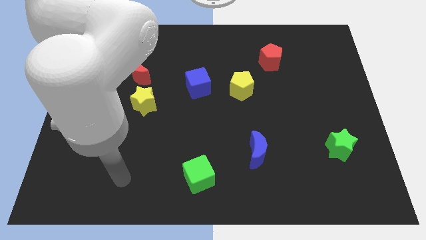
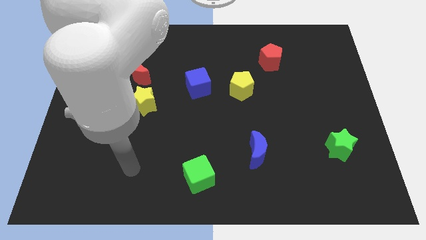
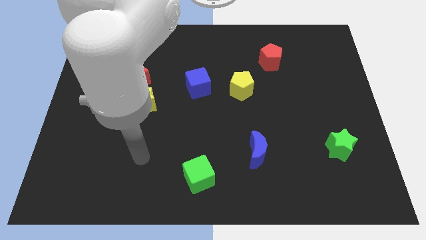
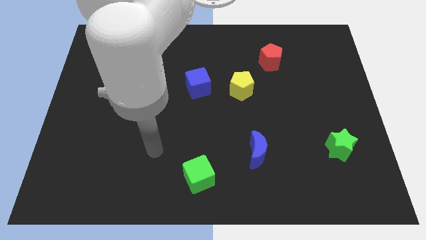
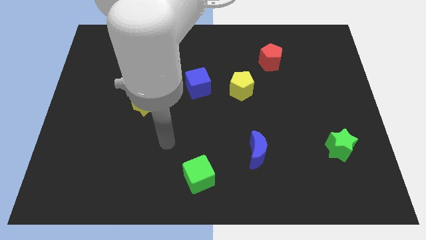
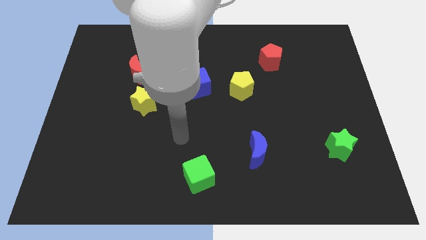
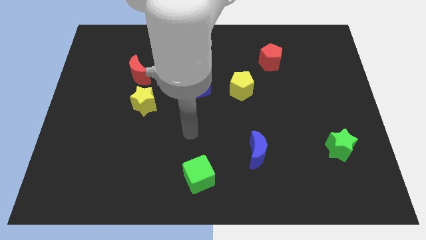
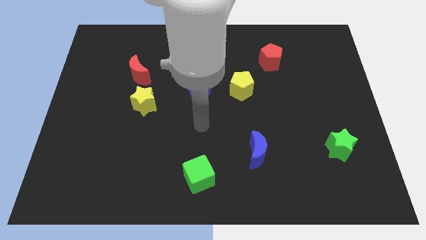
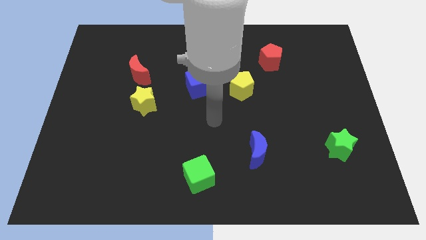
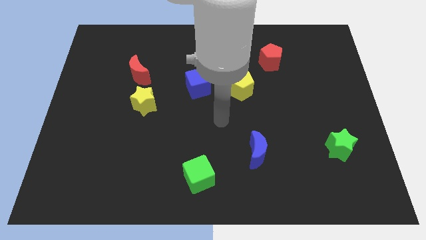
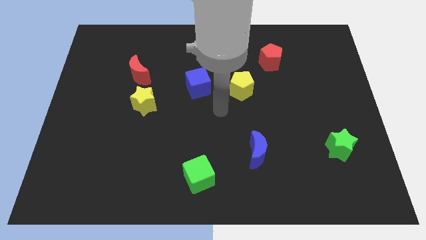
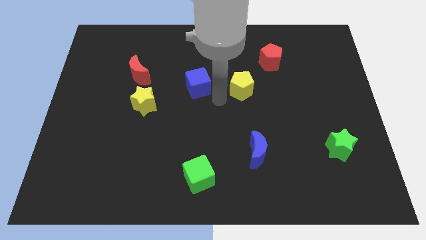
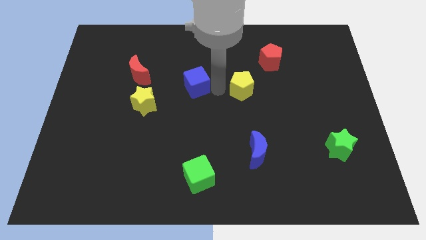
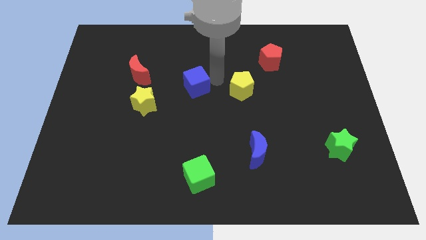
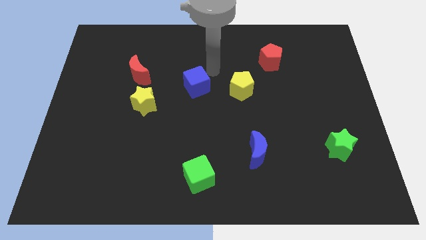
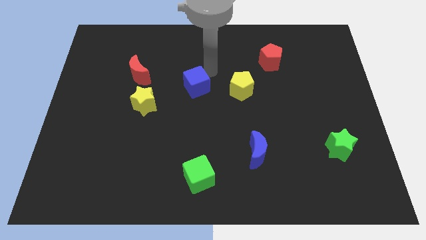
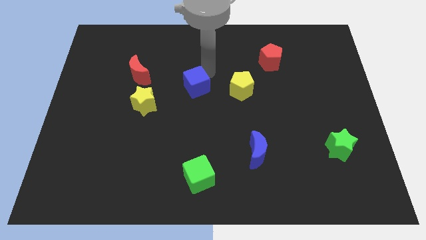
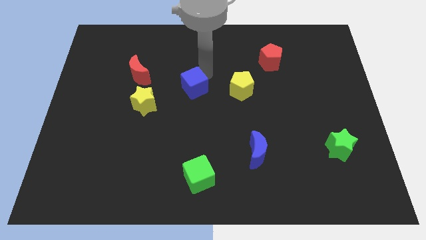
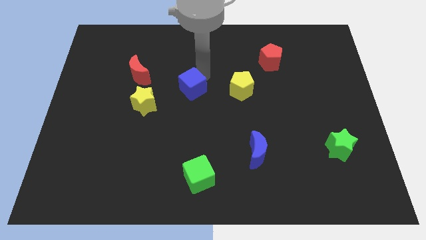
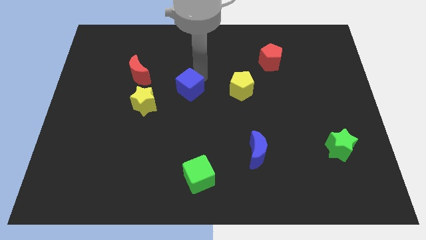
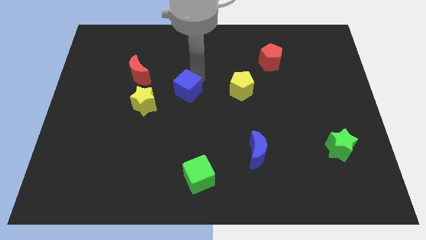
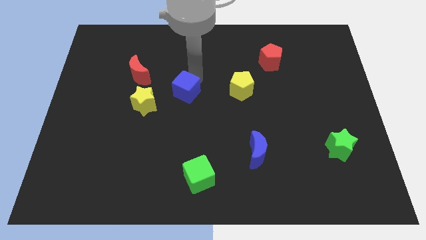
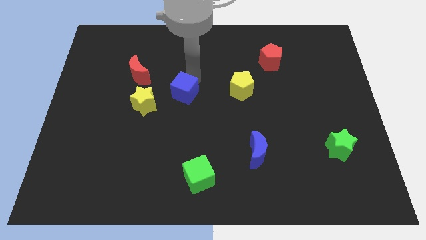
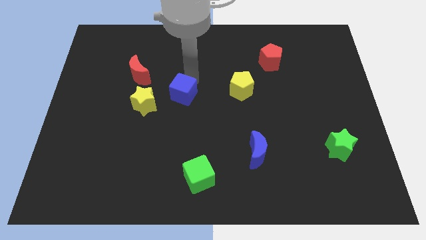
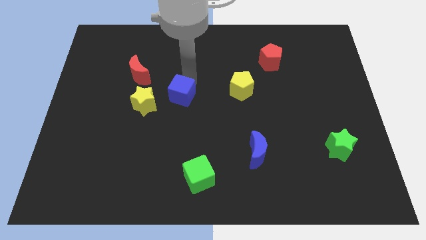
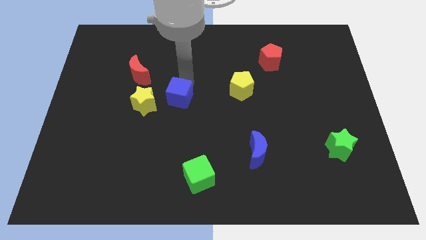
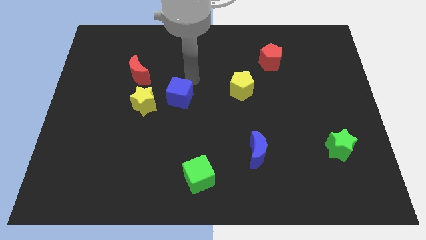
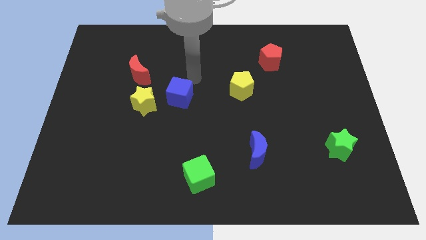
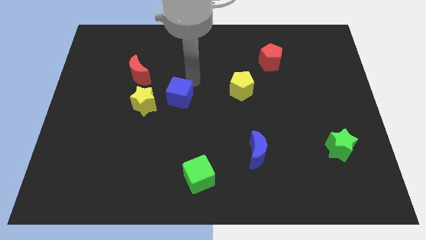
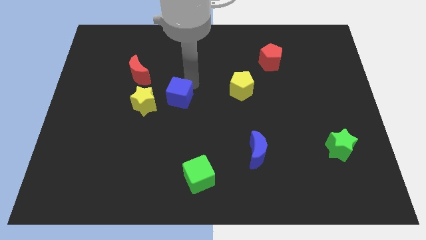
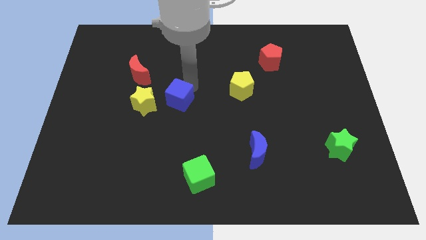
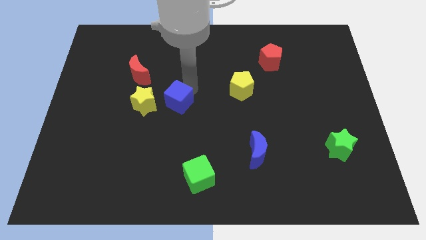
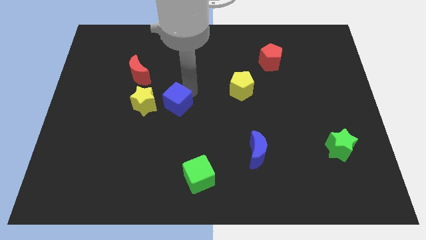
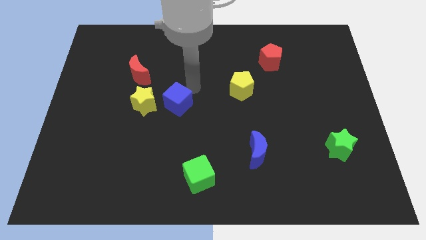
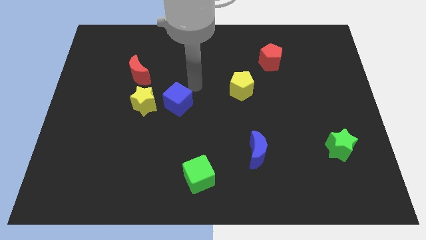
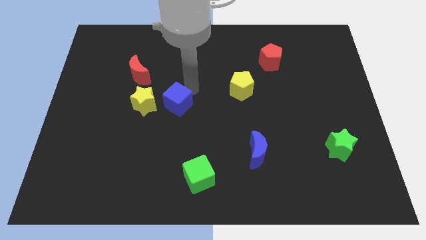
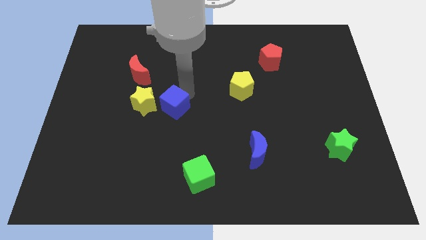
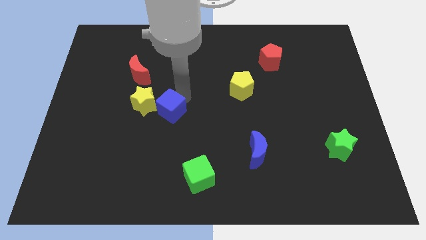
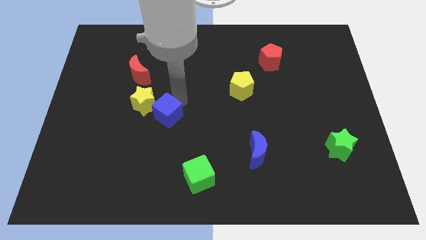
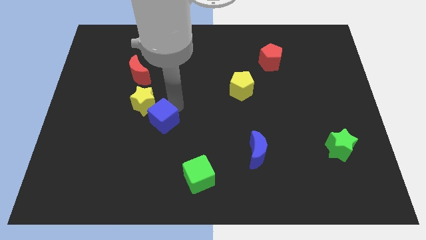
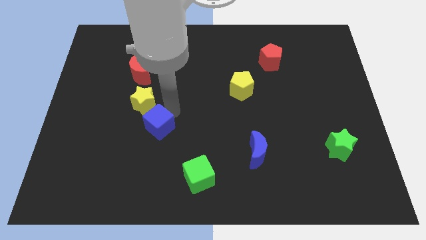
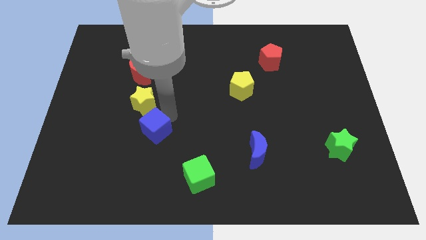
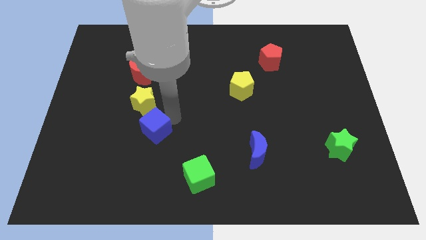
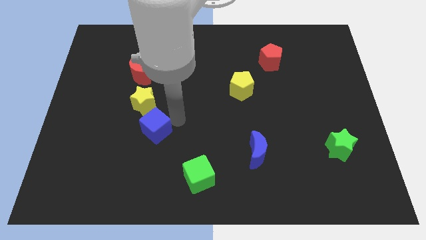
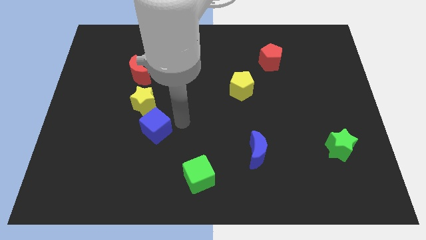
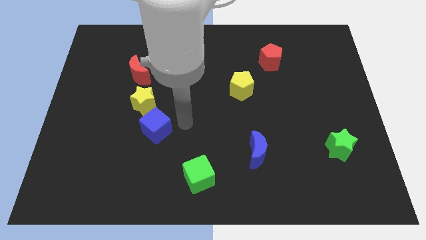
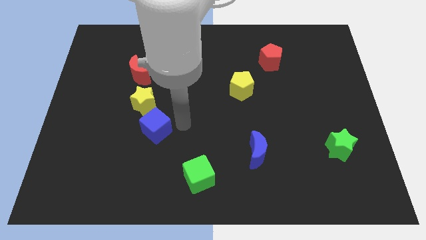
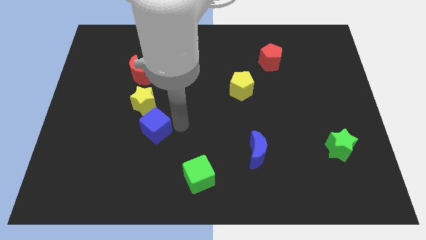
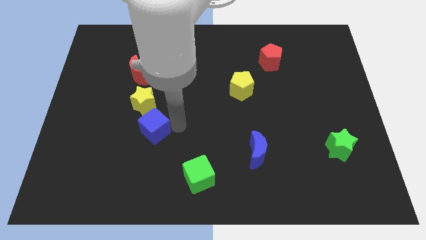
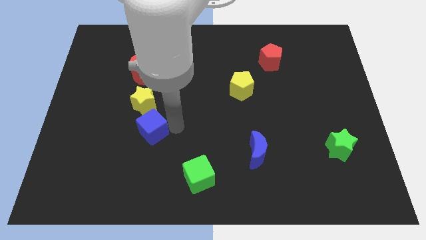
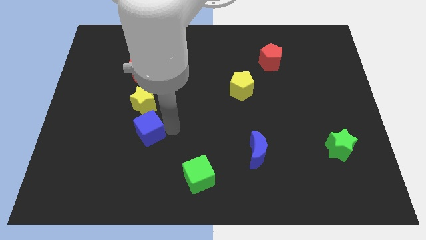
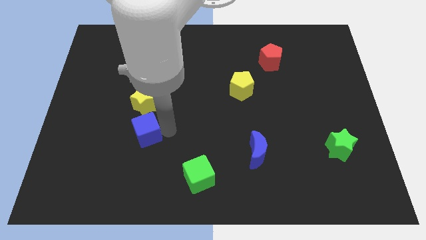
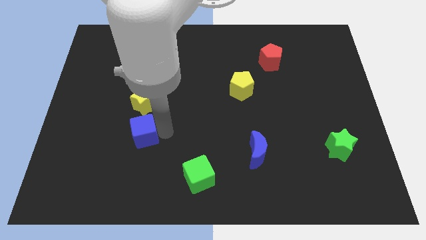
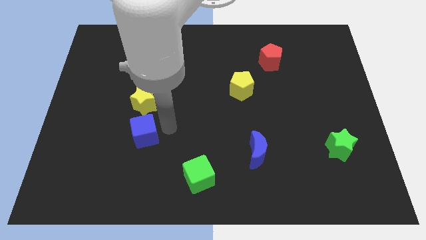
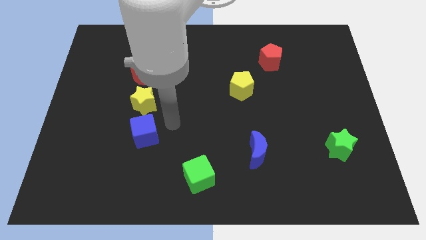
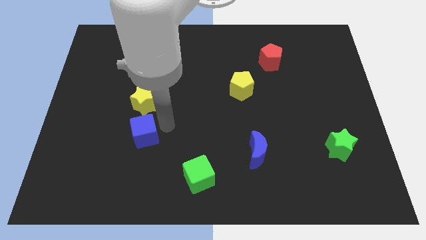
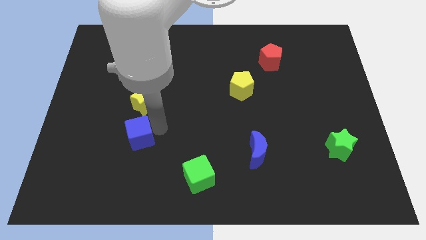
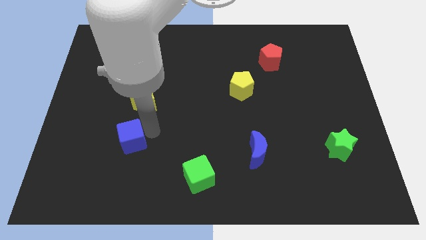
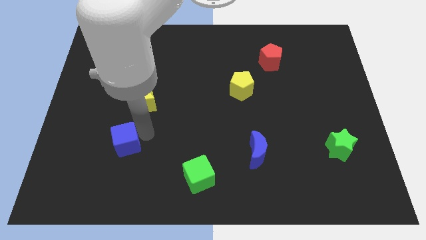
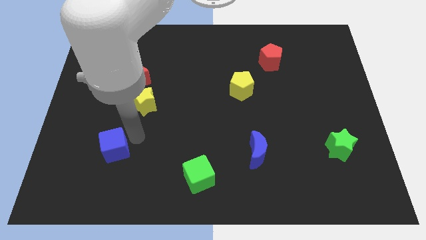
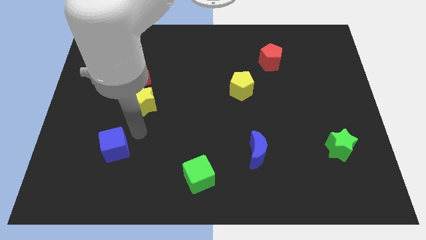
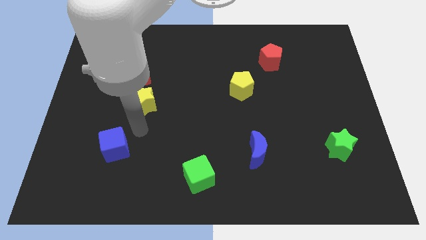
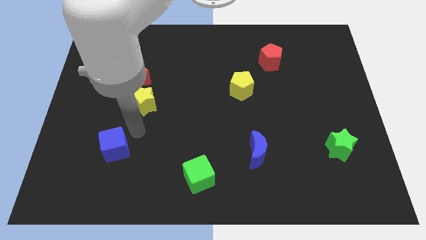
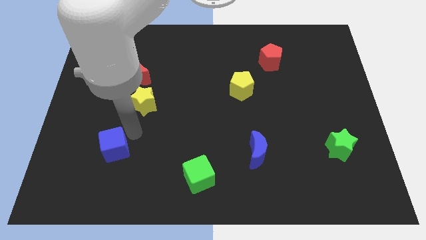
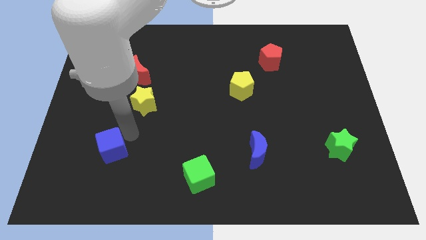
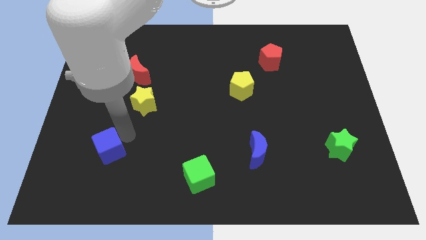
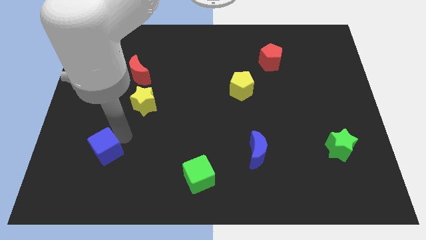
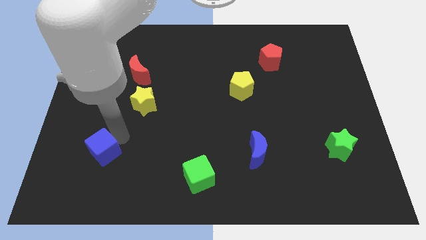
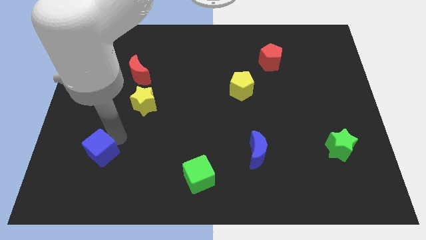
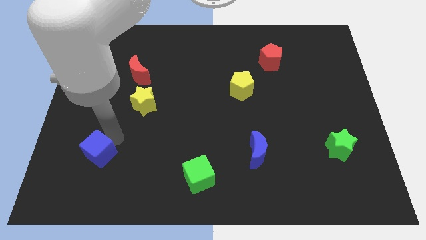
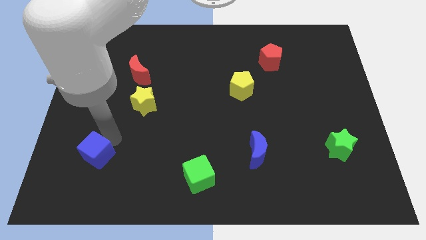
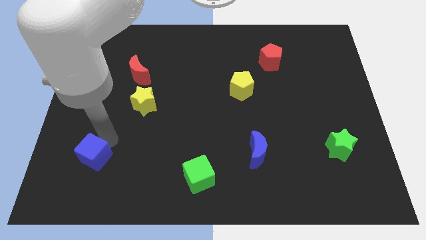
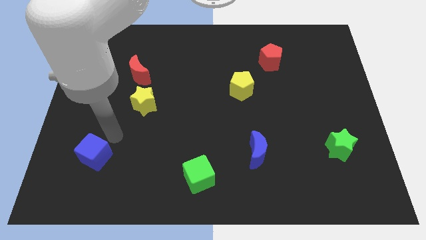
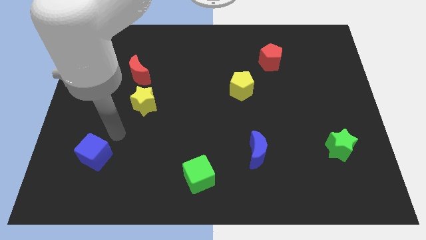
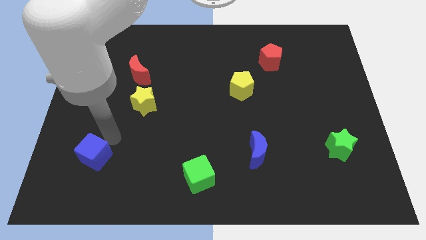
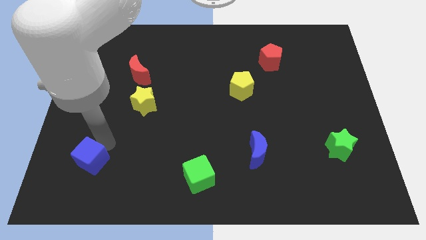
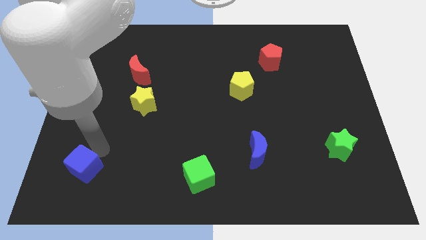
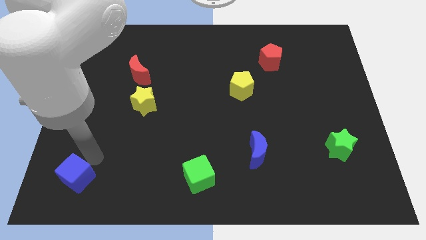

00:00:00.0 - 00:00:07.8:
put the blue cube to the bottom left
